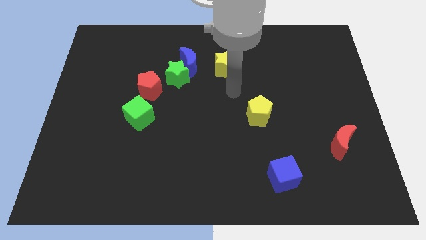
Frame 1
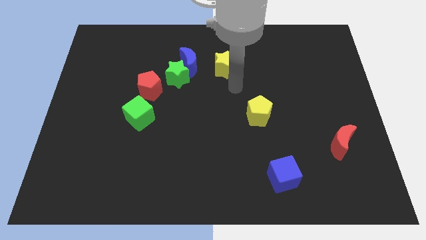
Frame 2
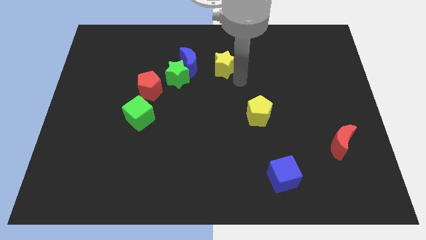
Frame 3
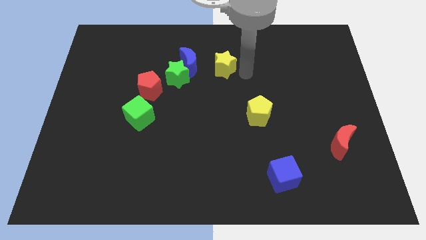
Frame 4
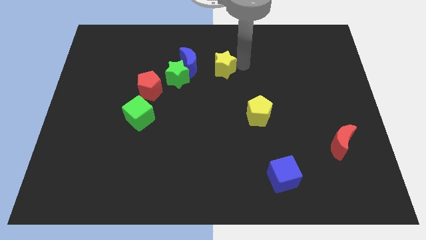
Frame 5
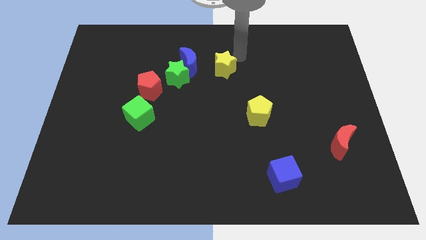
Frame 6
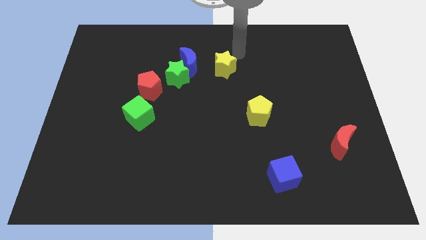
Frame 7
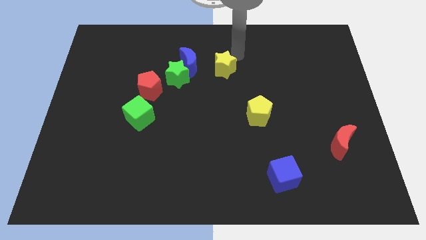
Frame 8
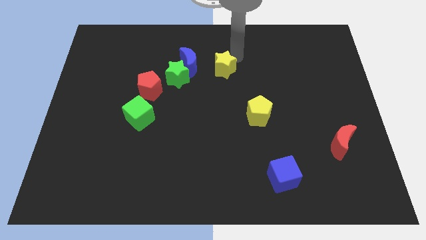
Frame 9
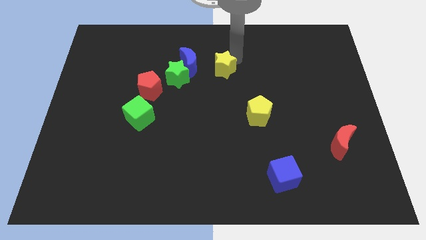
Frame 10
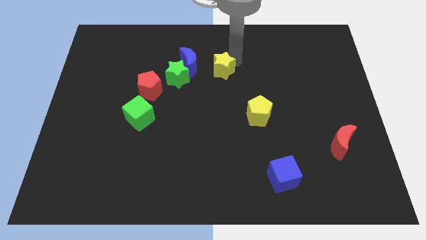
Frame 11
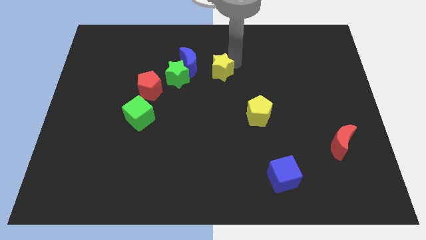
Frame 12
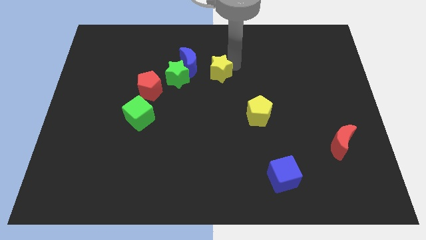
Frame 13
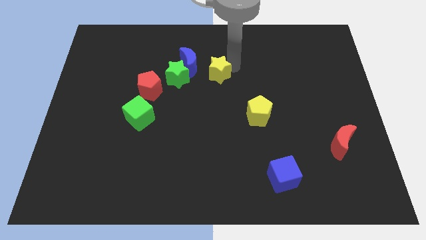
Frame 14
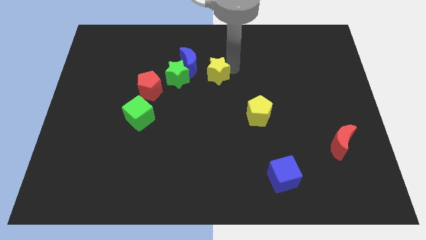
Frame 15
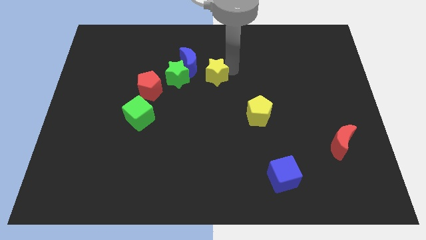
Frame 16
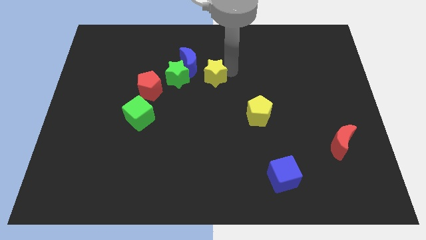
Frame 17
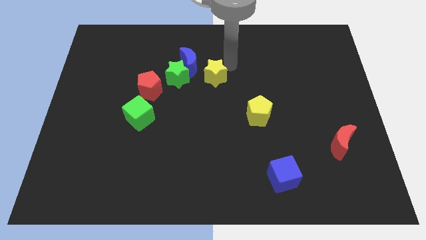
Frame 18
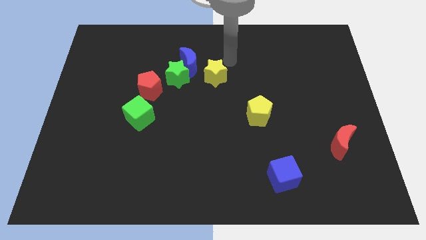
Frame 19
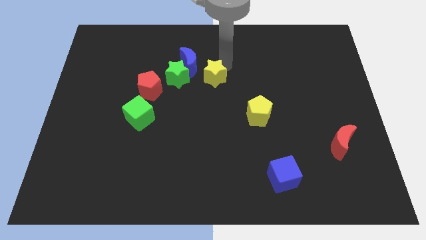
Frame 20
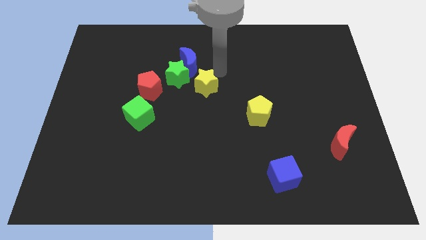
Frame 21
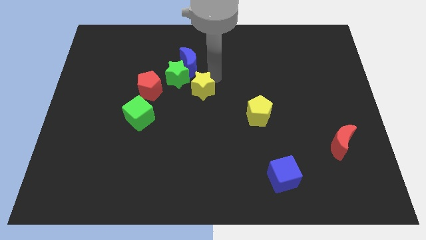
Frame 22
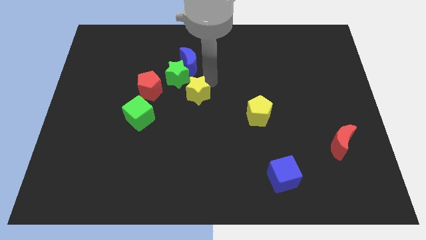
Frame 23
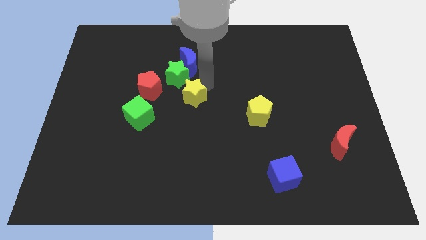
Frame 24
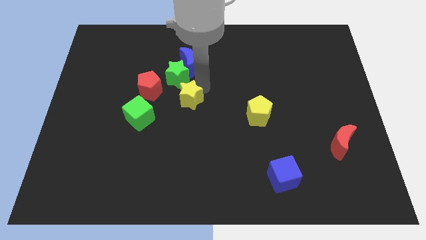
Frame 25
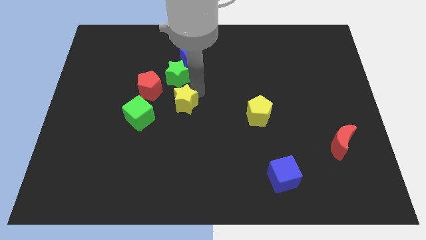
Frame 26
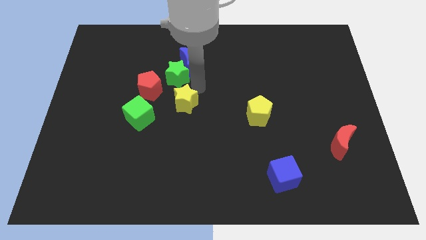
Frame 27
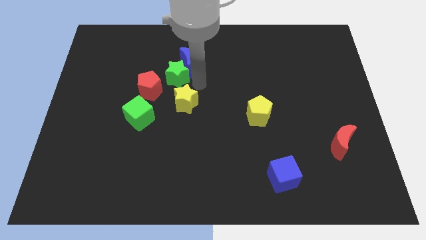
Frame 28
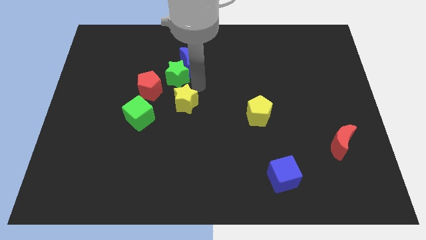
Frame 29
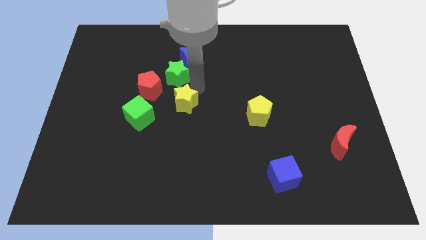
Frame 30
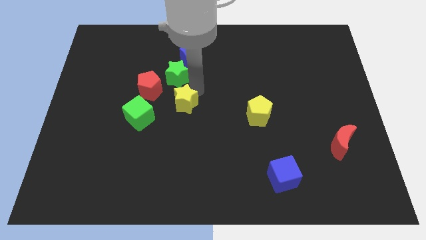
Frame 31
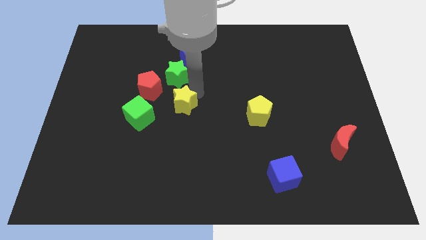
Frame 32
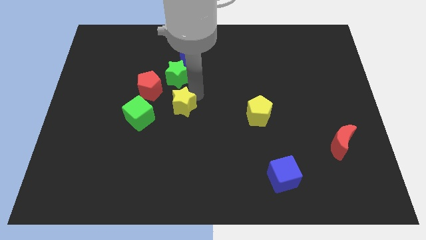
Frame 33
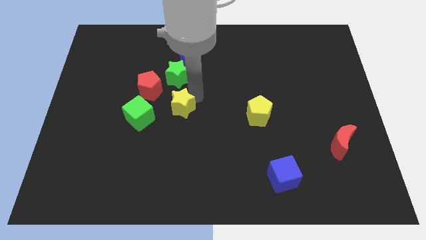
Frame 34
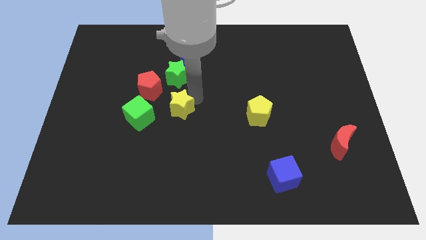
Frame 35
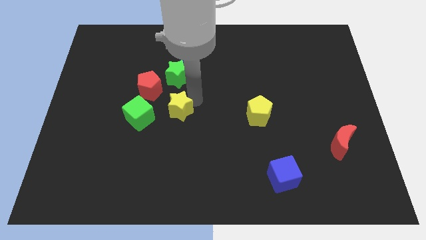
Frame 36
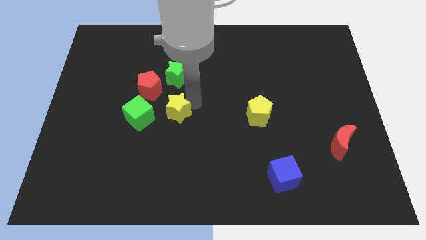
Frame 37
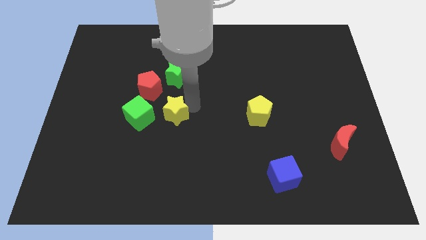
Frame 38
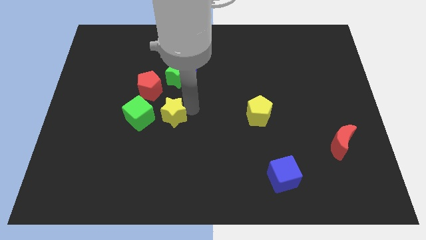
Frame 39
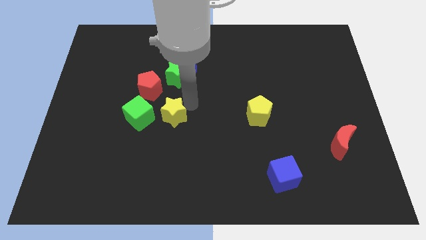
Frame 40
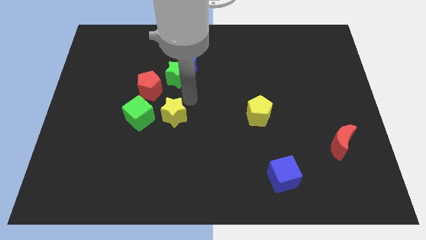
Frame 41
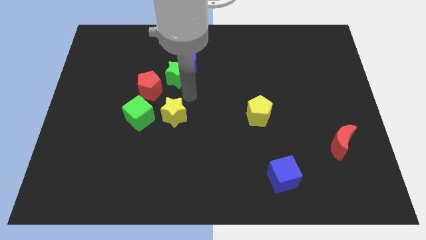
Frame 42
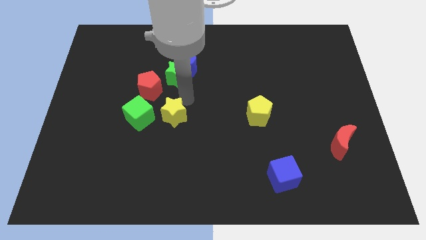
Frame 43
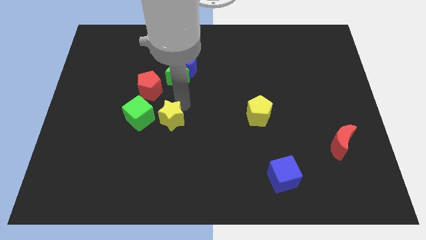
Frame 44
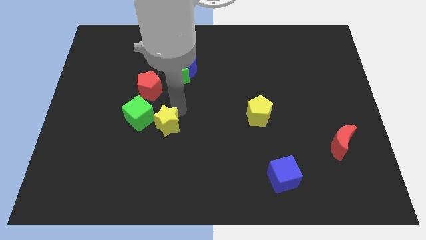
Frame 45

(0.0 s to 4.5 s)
push the yellow star diagonally down and to the right of the green cube

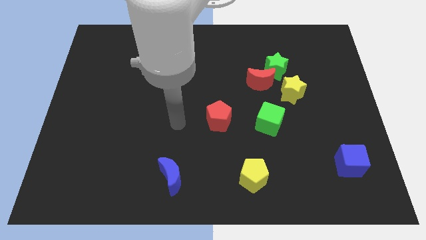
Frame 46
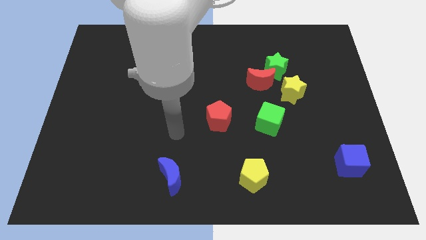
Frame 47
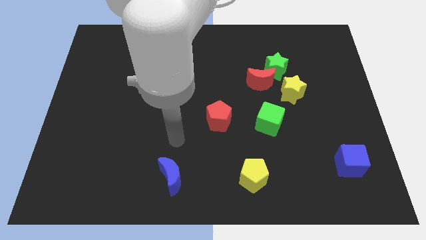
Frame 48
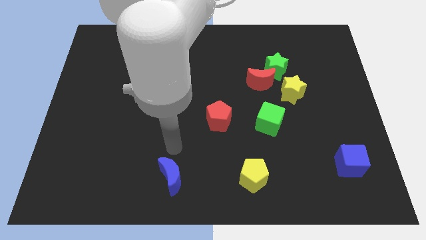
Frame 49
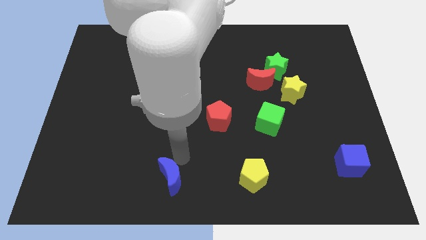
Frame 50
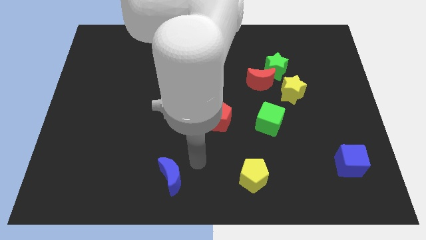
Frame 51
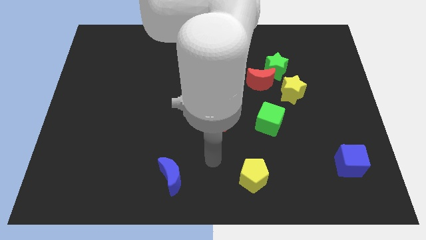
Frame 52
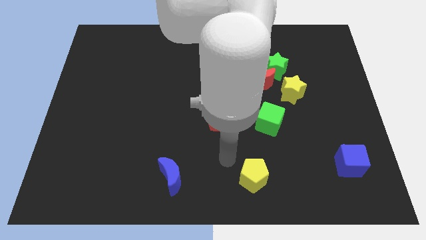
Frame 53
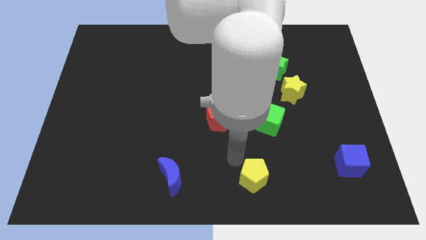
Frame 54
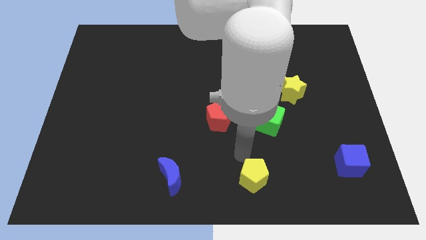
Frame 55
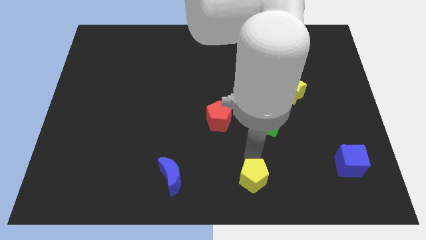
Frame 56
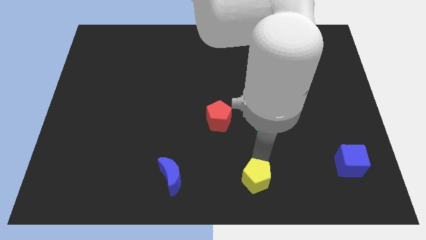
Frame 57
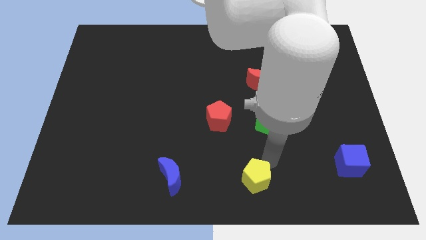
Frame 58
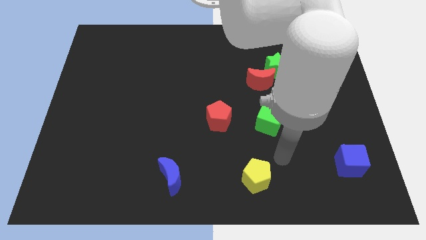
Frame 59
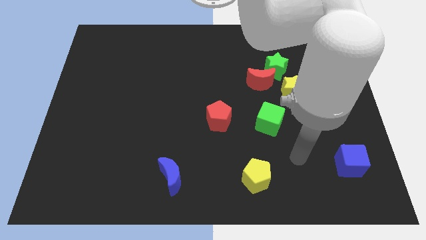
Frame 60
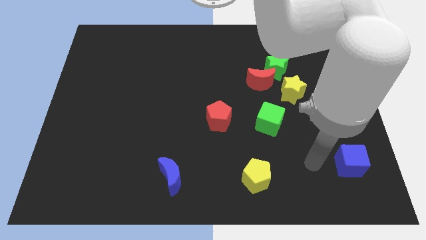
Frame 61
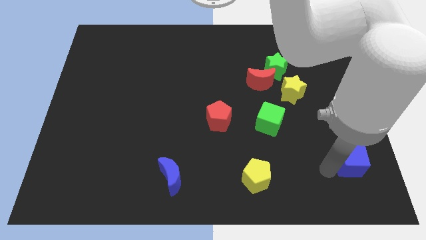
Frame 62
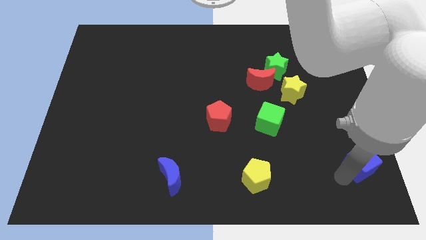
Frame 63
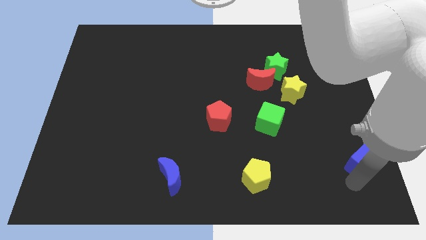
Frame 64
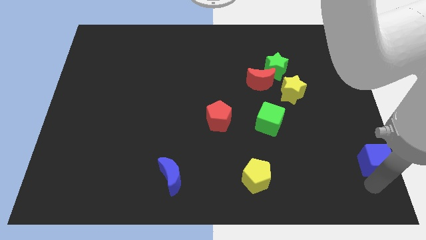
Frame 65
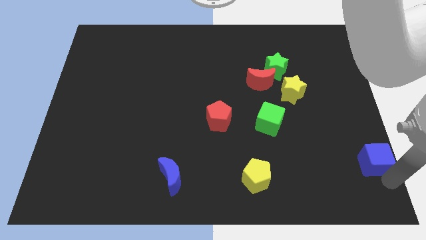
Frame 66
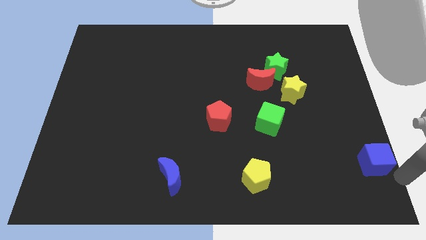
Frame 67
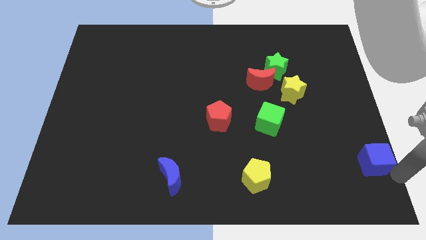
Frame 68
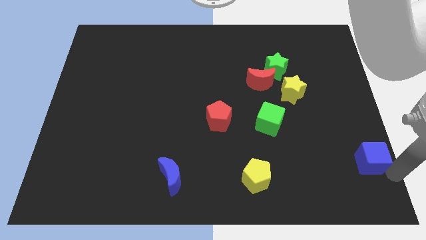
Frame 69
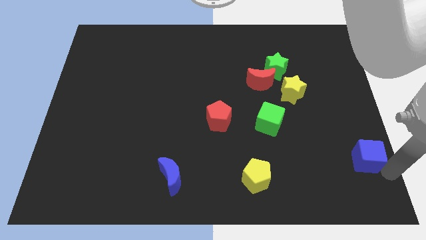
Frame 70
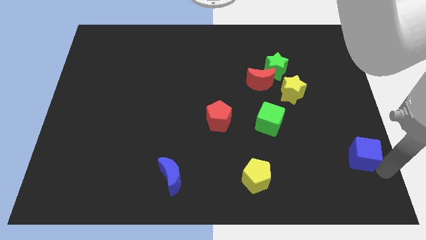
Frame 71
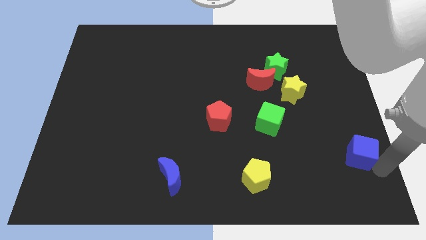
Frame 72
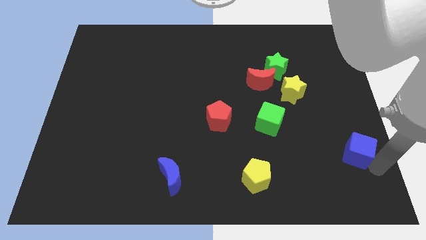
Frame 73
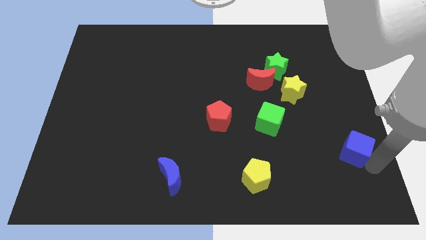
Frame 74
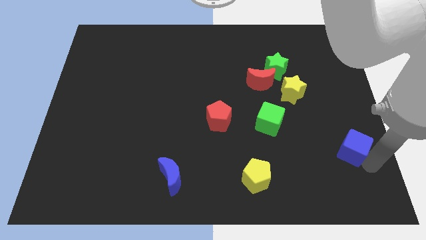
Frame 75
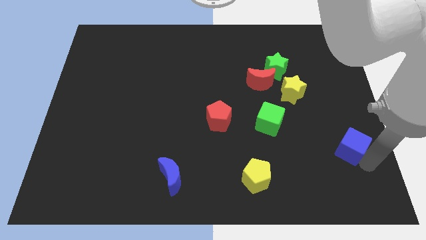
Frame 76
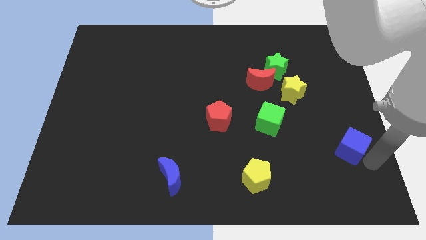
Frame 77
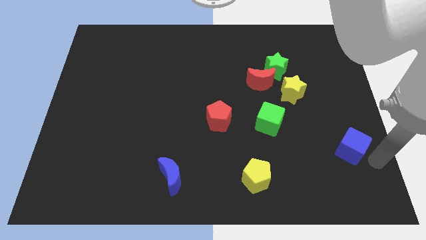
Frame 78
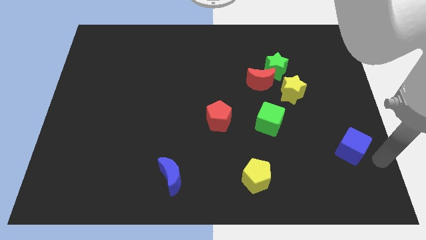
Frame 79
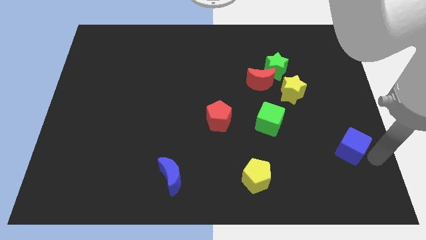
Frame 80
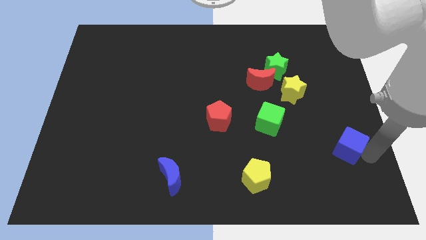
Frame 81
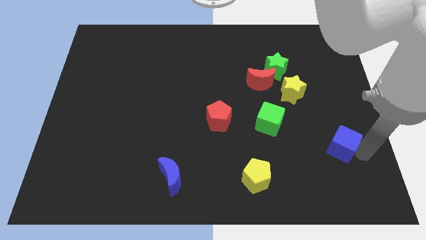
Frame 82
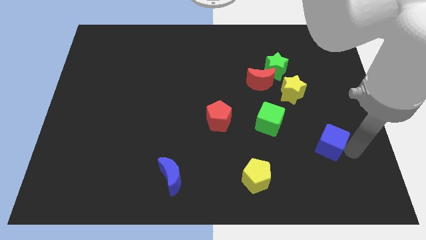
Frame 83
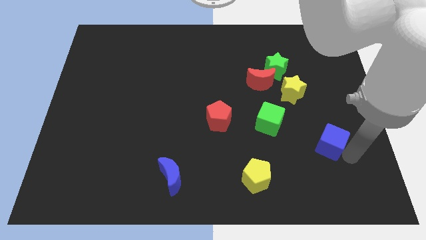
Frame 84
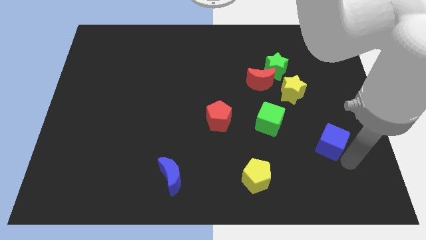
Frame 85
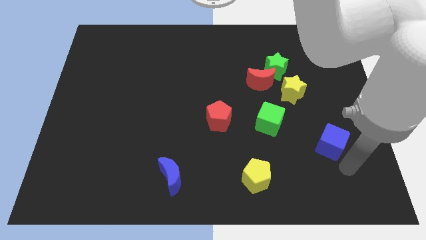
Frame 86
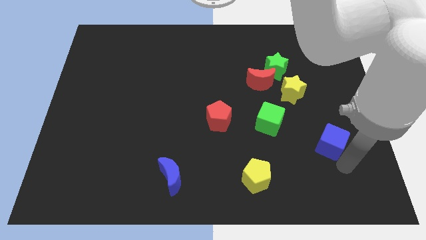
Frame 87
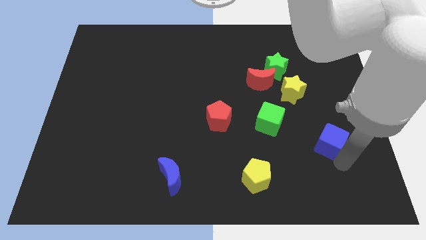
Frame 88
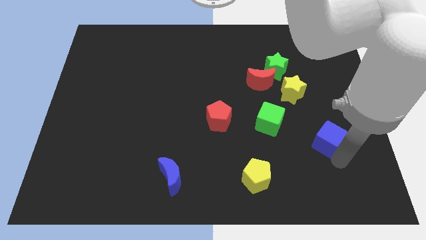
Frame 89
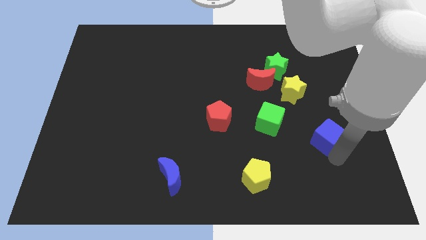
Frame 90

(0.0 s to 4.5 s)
slide the blue cube right of the green cube
